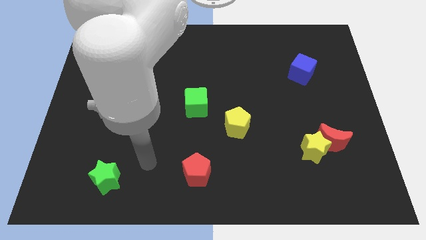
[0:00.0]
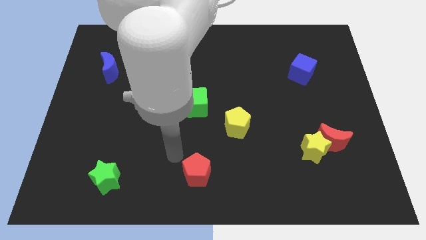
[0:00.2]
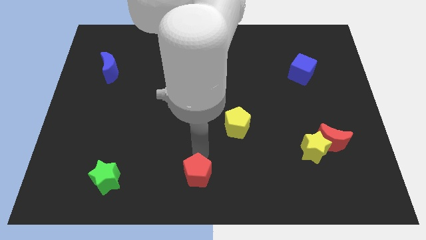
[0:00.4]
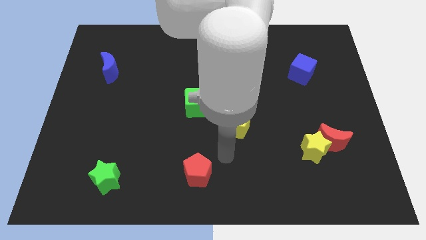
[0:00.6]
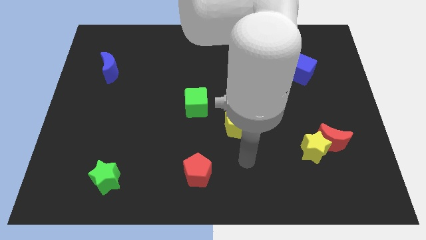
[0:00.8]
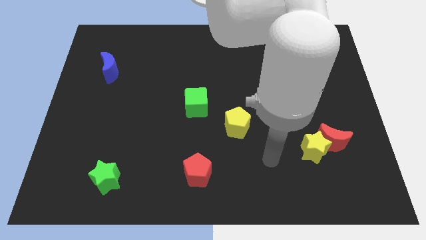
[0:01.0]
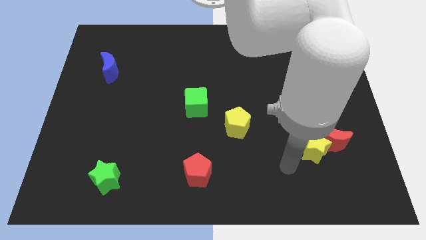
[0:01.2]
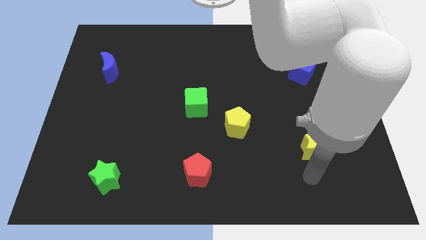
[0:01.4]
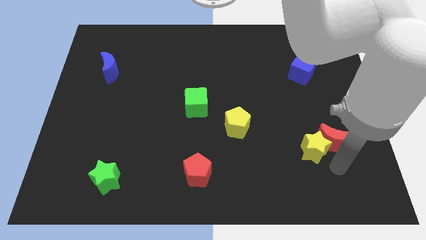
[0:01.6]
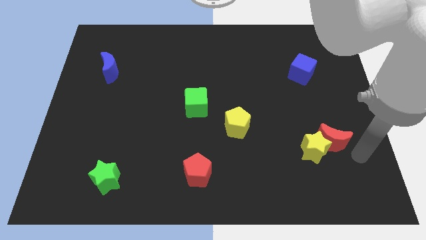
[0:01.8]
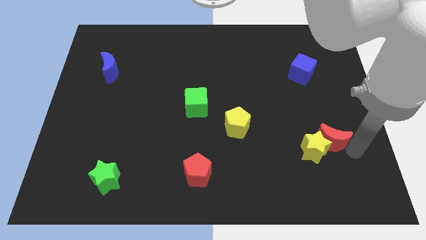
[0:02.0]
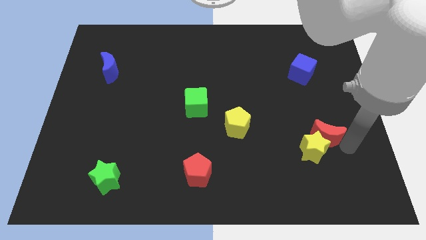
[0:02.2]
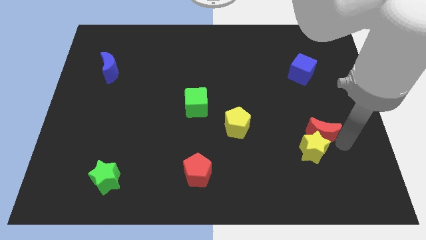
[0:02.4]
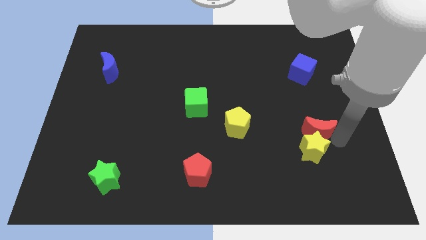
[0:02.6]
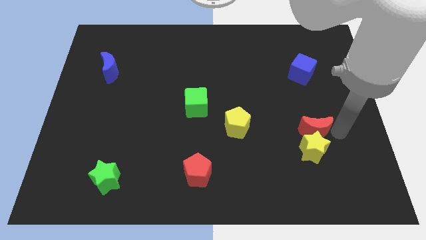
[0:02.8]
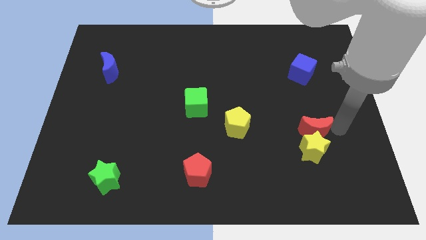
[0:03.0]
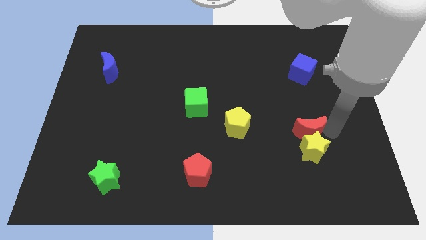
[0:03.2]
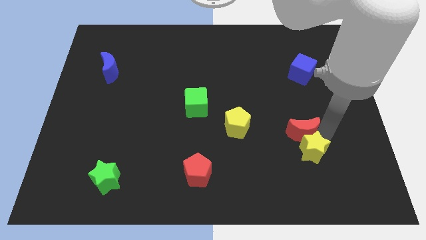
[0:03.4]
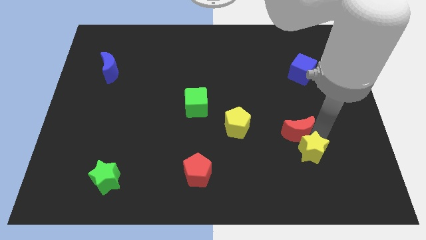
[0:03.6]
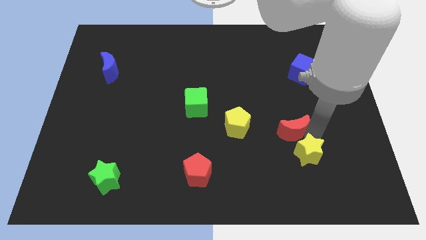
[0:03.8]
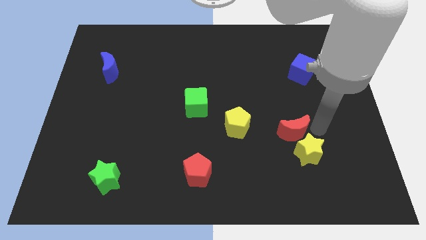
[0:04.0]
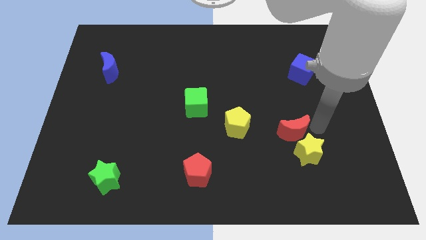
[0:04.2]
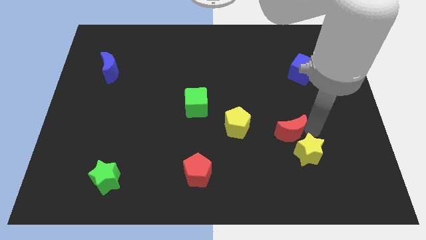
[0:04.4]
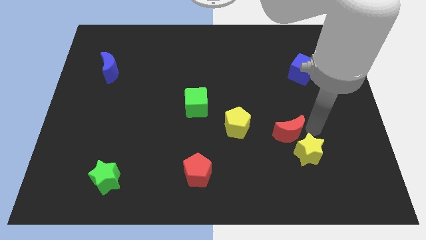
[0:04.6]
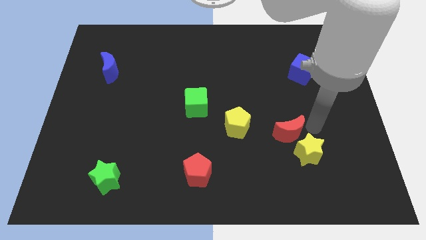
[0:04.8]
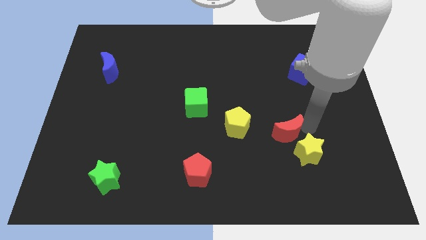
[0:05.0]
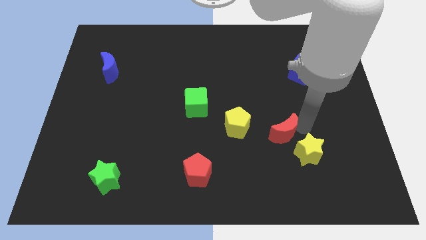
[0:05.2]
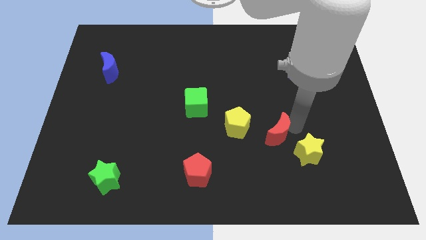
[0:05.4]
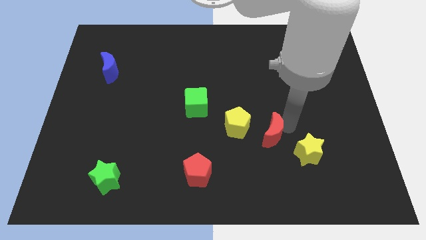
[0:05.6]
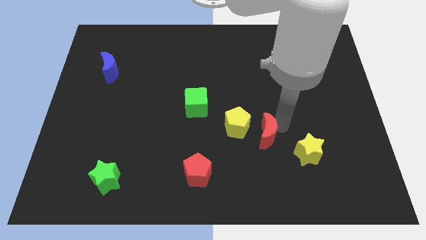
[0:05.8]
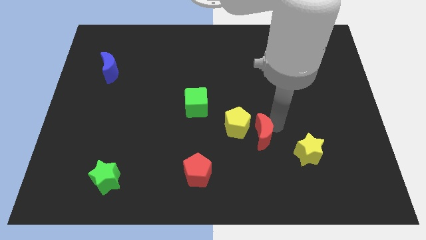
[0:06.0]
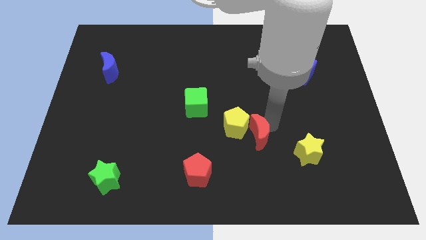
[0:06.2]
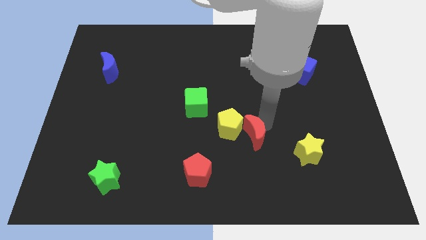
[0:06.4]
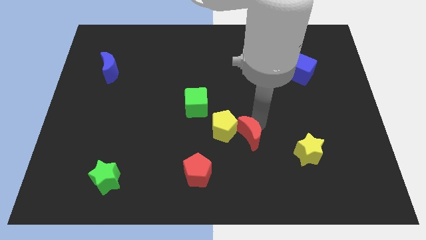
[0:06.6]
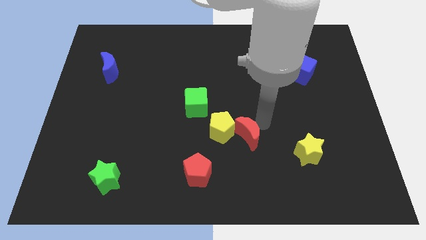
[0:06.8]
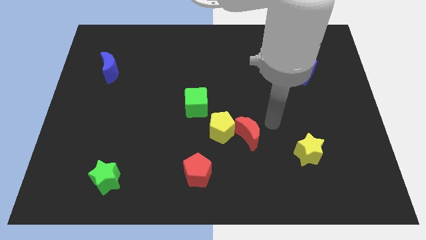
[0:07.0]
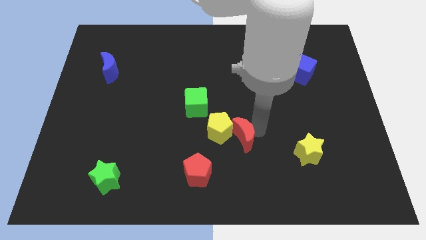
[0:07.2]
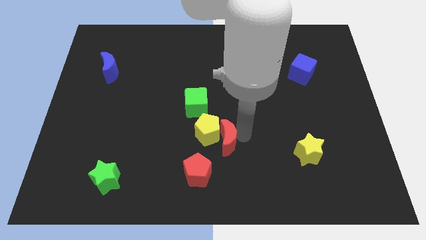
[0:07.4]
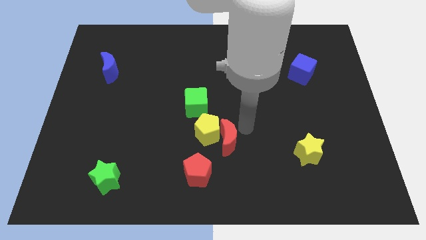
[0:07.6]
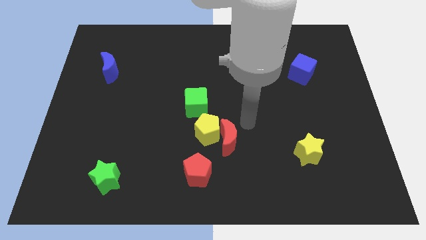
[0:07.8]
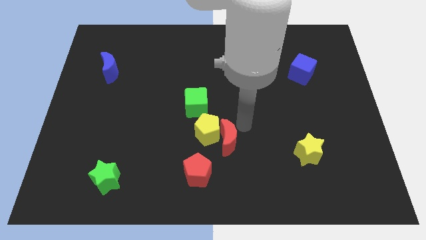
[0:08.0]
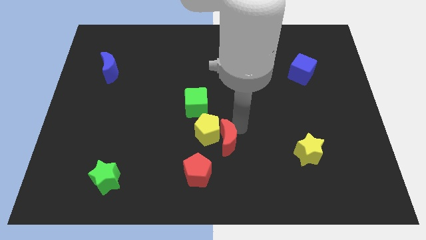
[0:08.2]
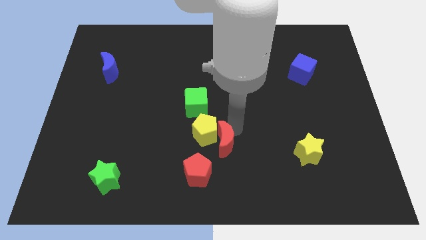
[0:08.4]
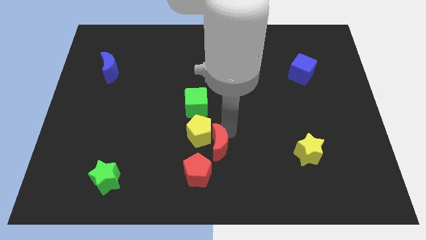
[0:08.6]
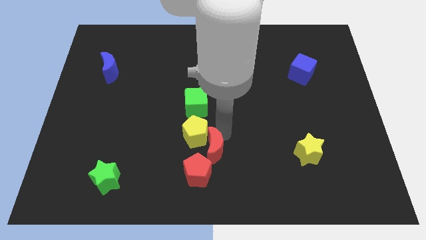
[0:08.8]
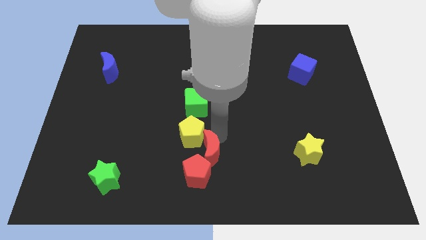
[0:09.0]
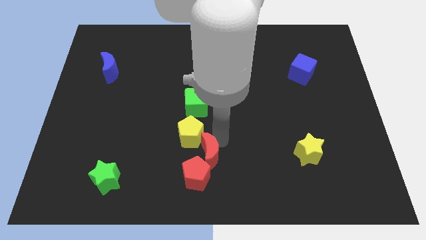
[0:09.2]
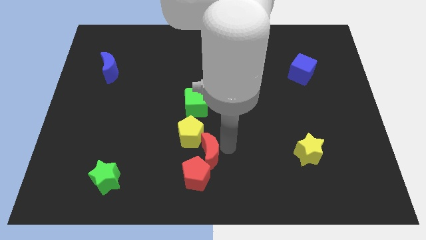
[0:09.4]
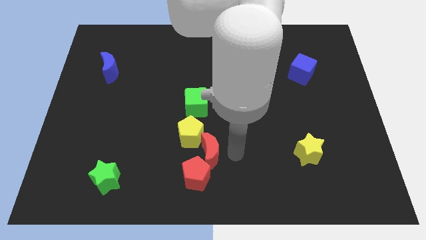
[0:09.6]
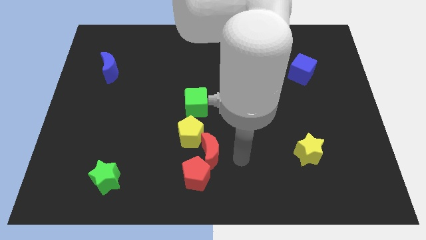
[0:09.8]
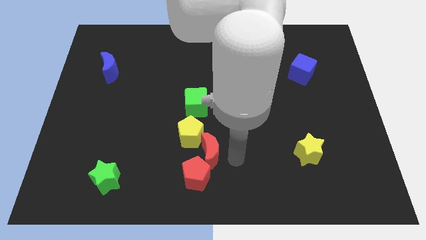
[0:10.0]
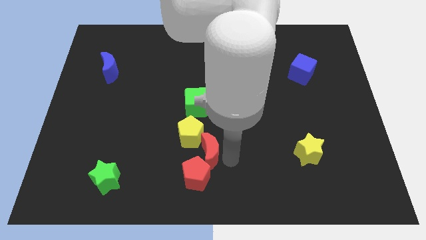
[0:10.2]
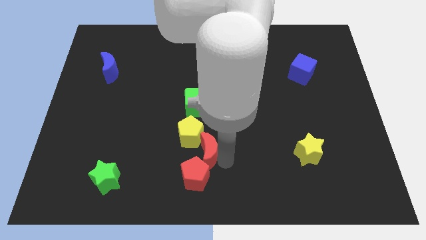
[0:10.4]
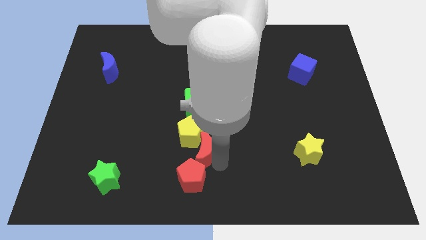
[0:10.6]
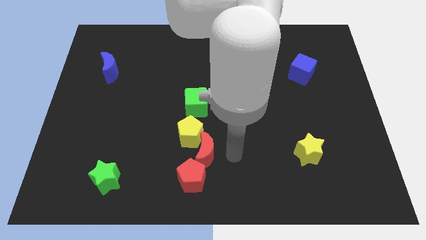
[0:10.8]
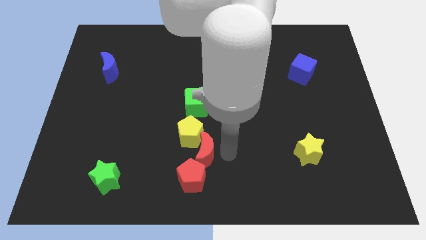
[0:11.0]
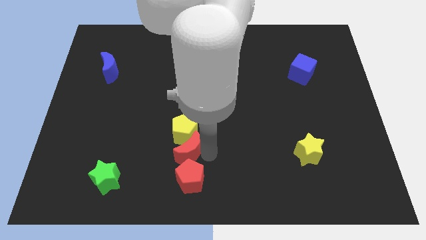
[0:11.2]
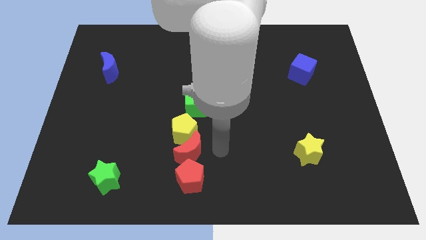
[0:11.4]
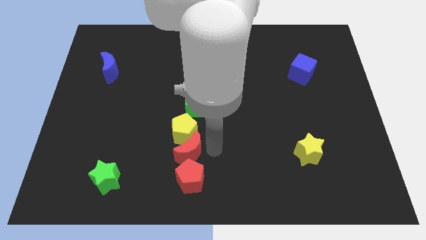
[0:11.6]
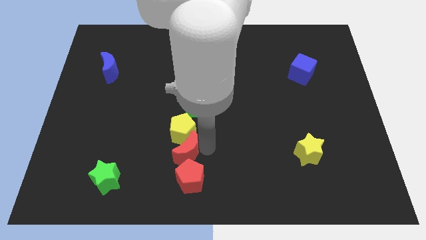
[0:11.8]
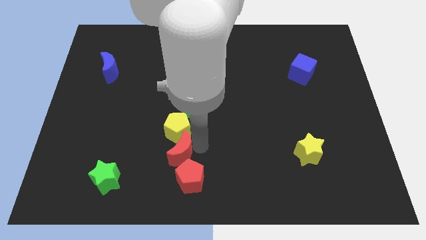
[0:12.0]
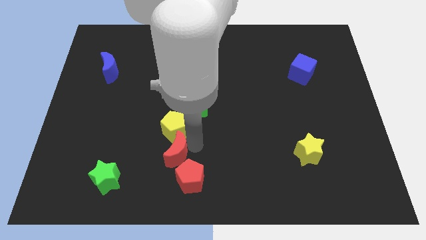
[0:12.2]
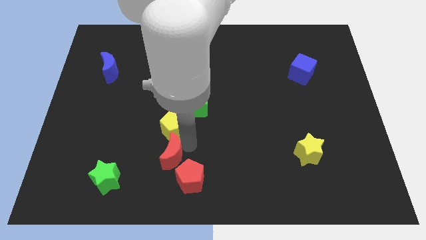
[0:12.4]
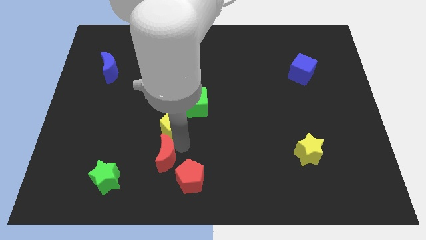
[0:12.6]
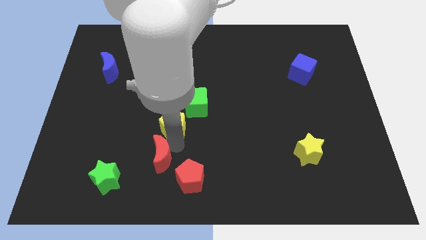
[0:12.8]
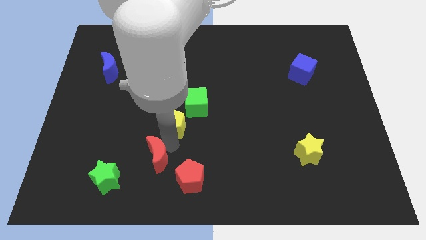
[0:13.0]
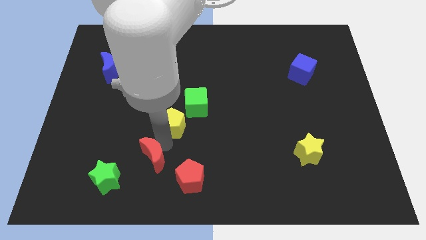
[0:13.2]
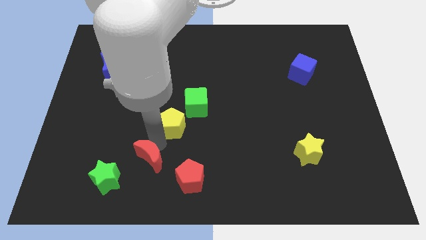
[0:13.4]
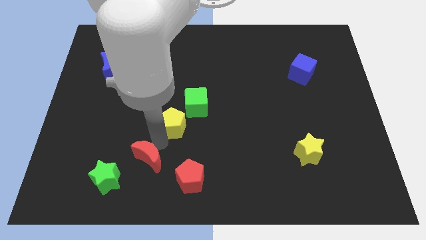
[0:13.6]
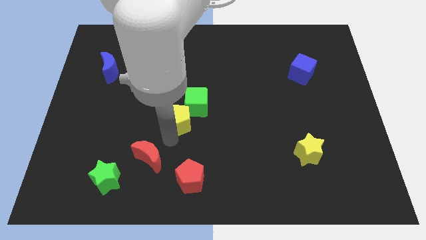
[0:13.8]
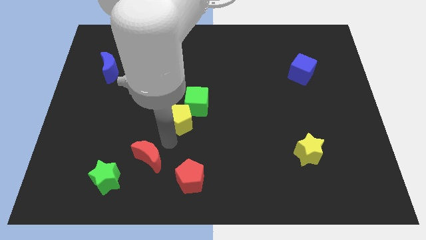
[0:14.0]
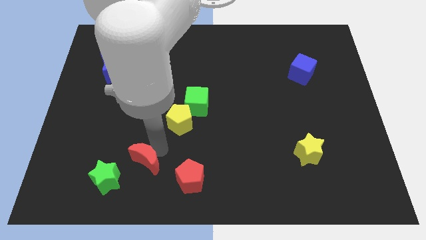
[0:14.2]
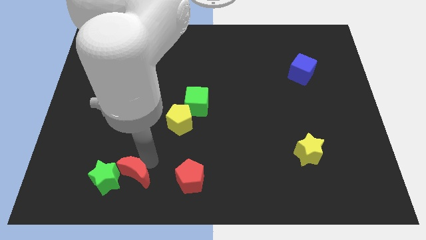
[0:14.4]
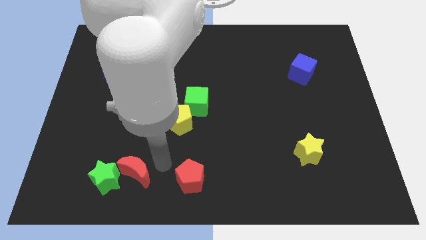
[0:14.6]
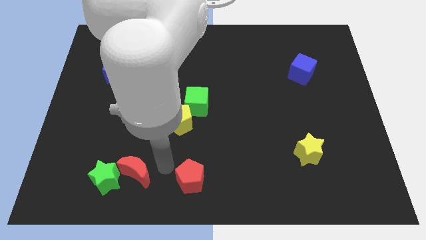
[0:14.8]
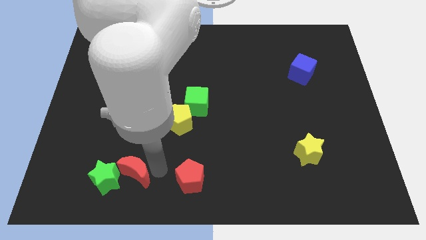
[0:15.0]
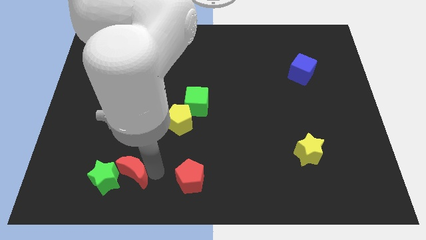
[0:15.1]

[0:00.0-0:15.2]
put the red moon next to the green star

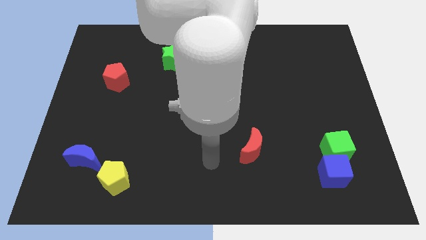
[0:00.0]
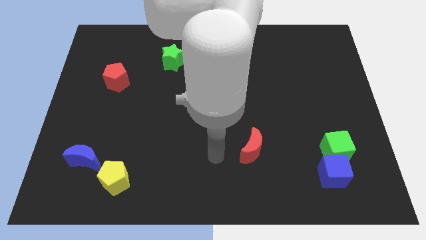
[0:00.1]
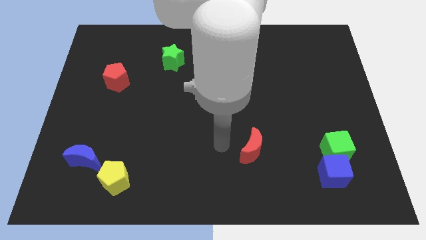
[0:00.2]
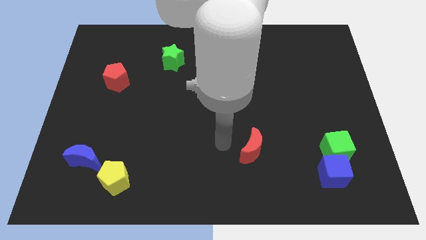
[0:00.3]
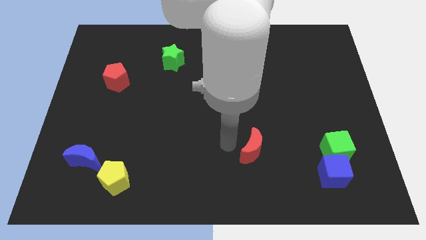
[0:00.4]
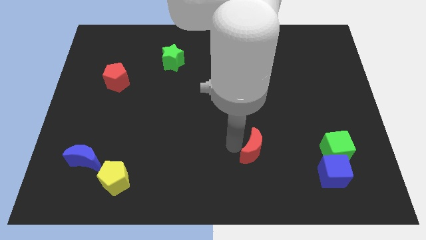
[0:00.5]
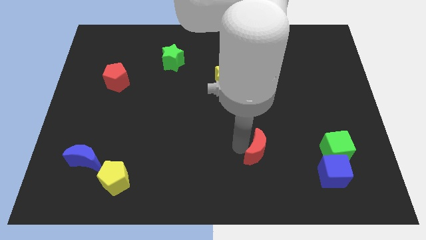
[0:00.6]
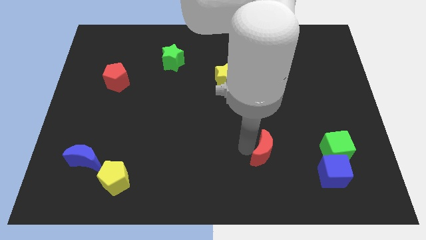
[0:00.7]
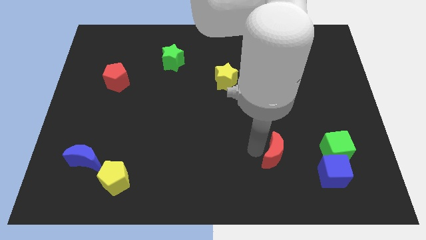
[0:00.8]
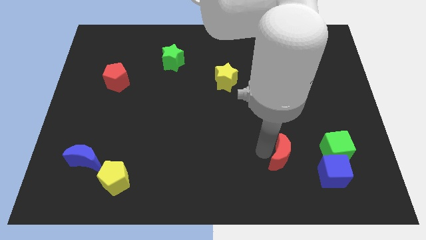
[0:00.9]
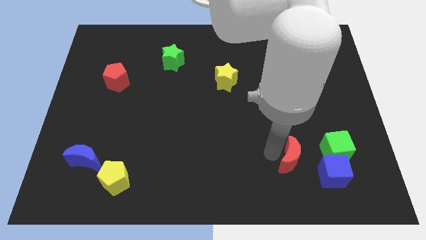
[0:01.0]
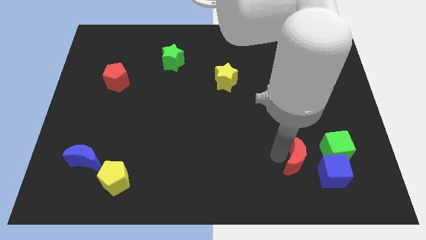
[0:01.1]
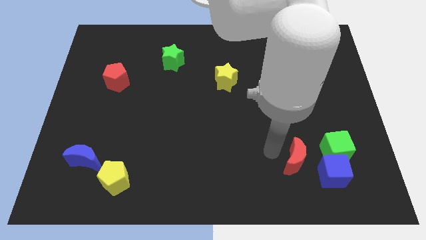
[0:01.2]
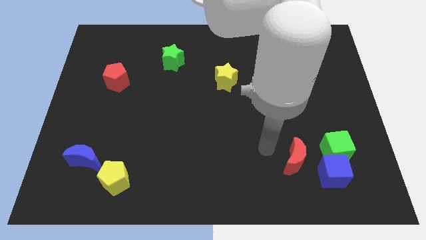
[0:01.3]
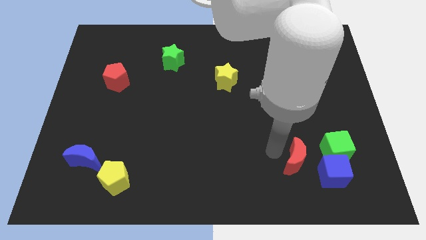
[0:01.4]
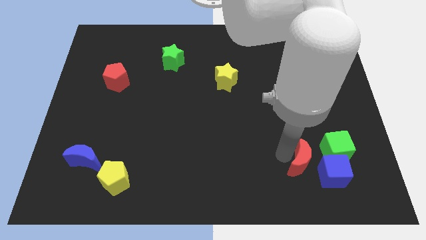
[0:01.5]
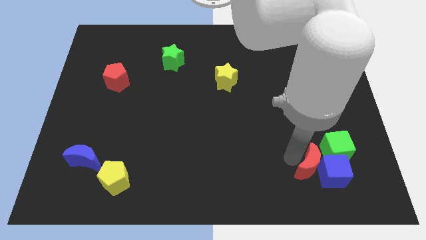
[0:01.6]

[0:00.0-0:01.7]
move the red moon next to the blue cube
